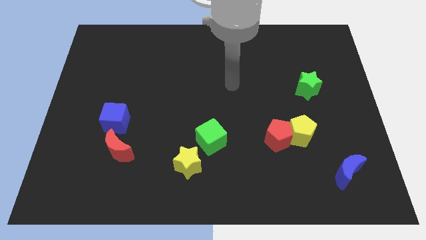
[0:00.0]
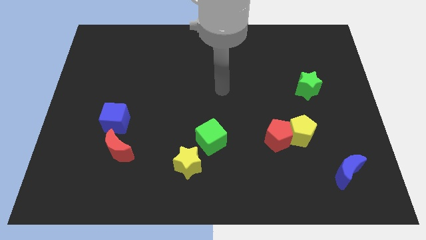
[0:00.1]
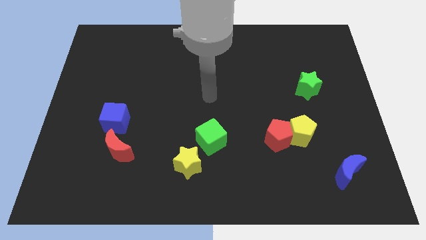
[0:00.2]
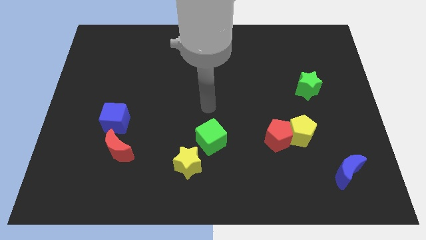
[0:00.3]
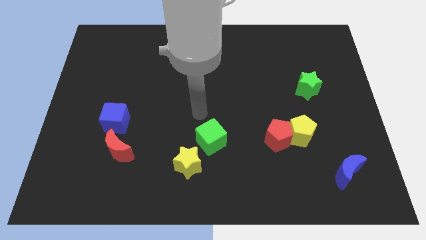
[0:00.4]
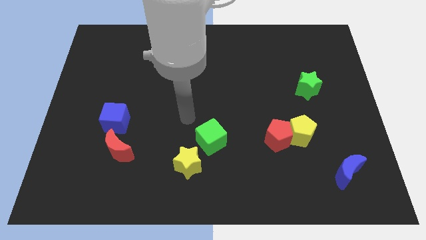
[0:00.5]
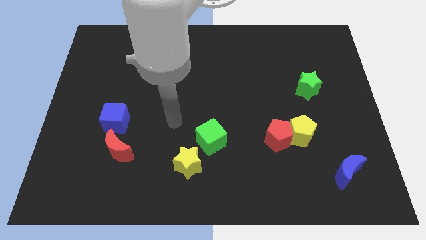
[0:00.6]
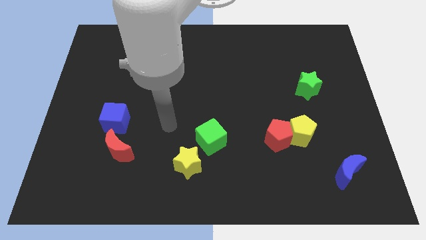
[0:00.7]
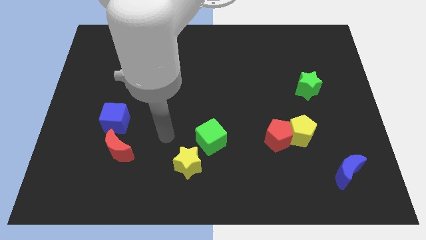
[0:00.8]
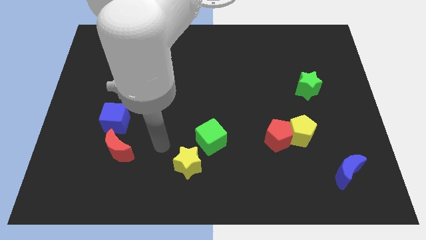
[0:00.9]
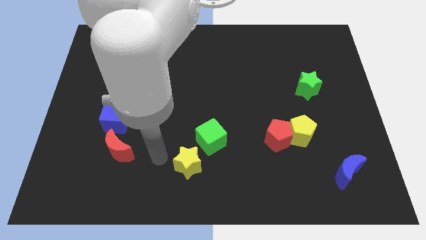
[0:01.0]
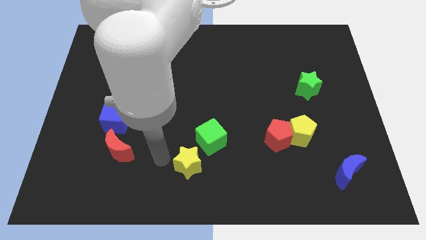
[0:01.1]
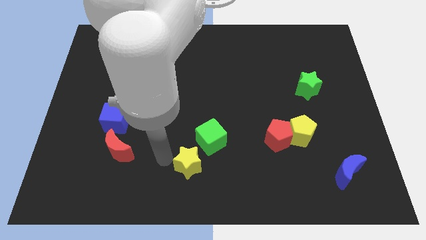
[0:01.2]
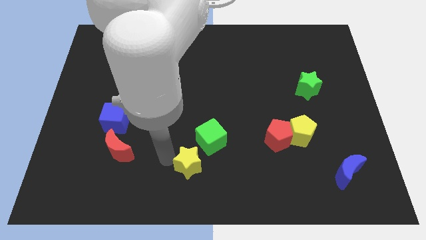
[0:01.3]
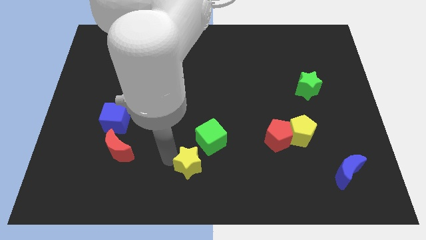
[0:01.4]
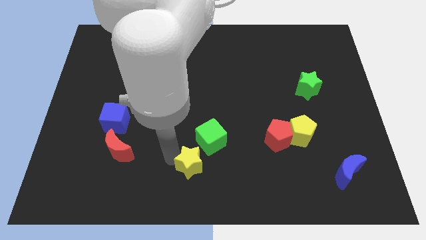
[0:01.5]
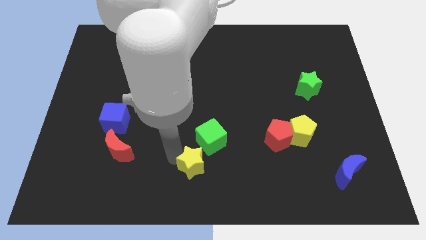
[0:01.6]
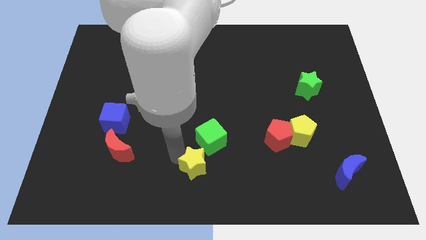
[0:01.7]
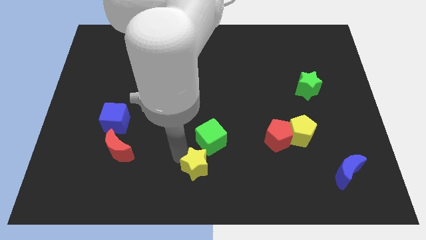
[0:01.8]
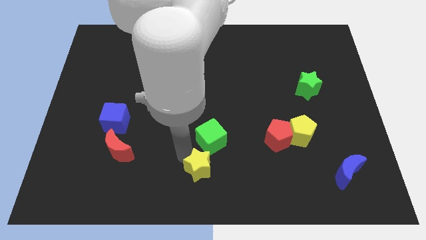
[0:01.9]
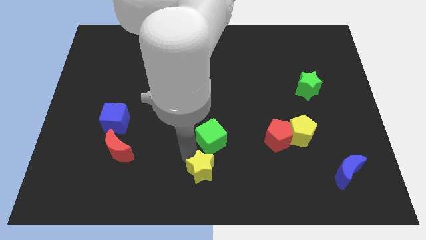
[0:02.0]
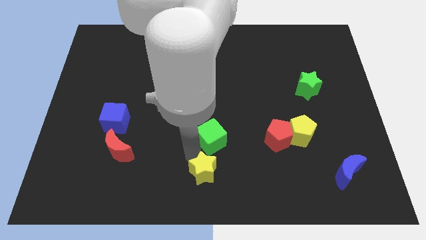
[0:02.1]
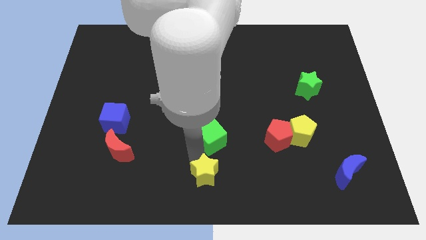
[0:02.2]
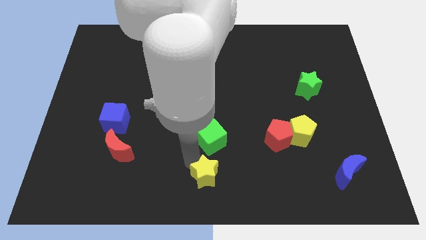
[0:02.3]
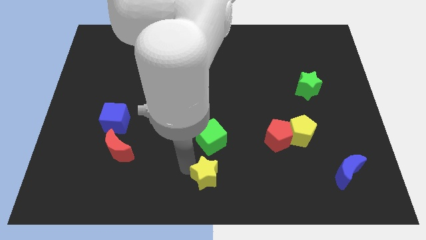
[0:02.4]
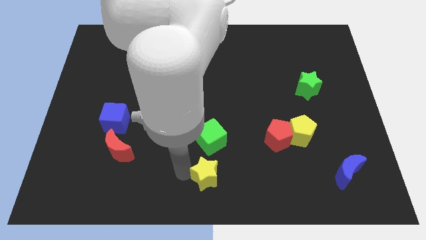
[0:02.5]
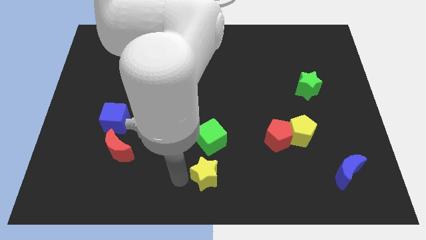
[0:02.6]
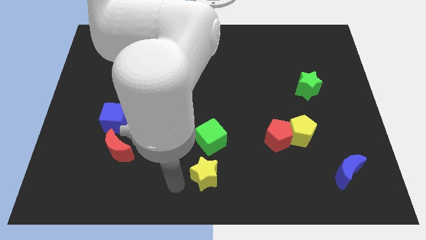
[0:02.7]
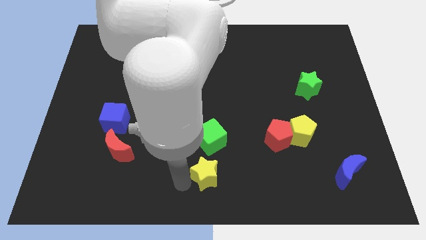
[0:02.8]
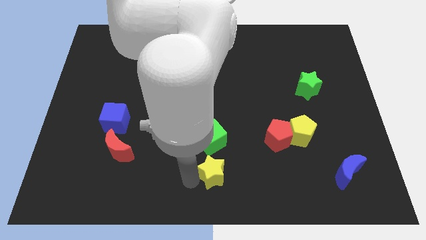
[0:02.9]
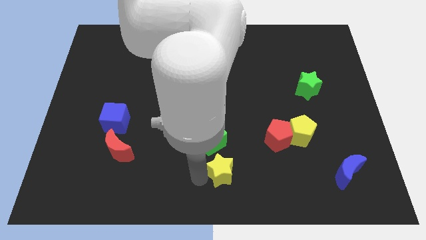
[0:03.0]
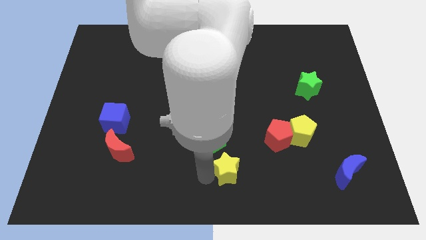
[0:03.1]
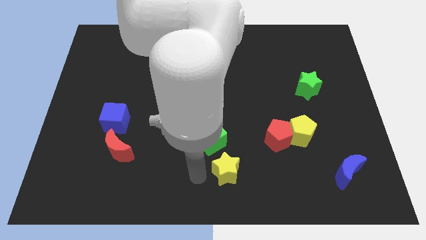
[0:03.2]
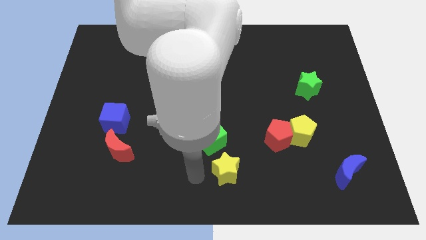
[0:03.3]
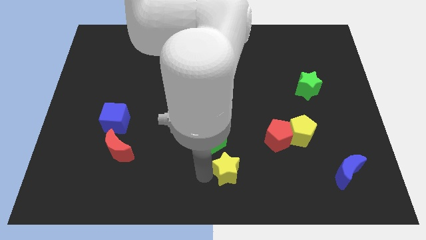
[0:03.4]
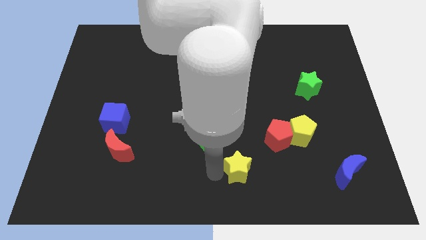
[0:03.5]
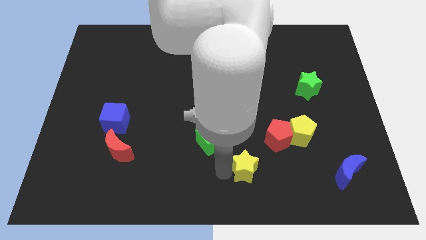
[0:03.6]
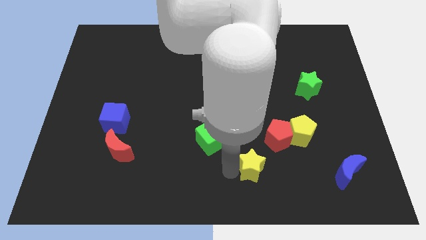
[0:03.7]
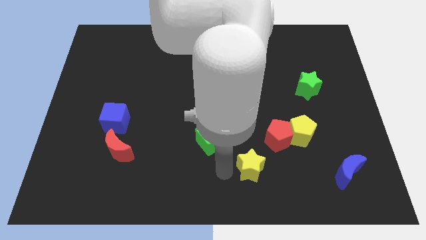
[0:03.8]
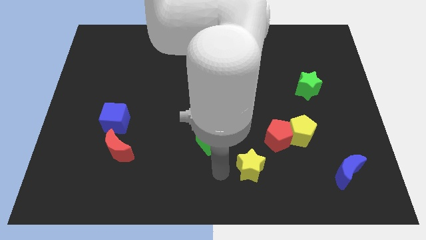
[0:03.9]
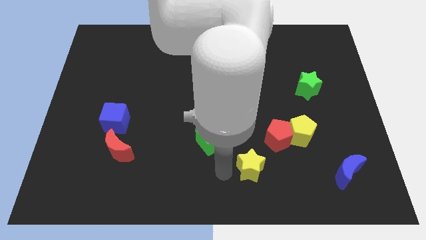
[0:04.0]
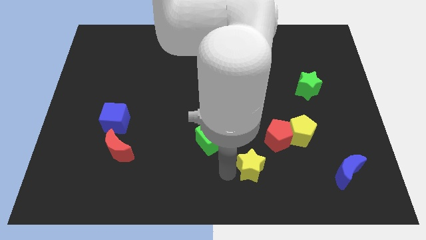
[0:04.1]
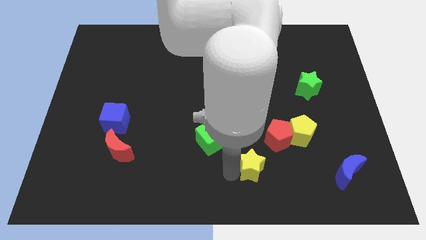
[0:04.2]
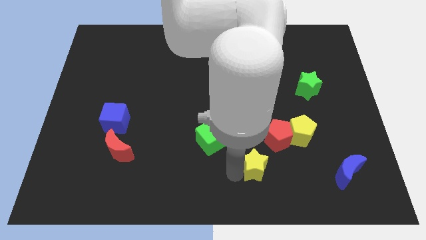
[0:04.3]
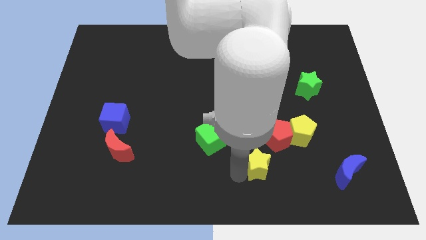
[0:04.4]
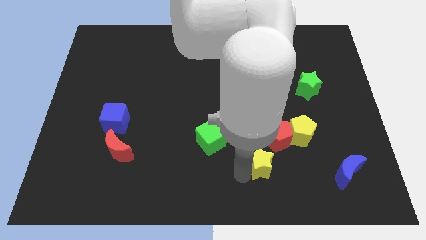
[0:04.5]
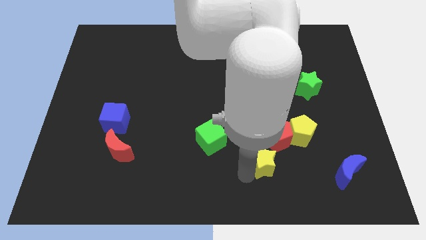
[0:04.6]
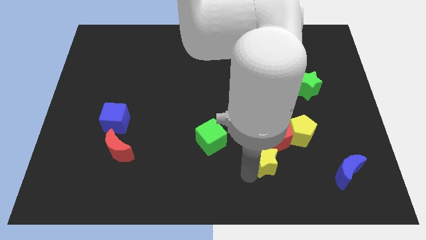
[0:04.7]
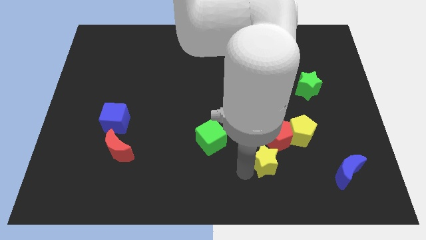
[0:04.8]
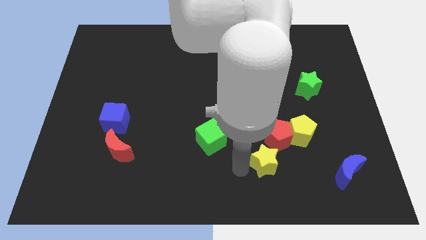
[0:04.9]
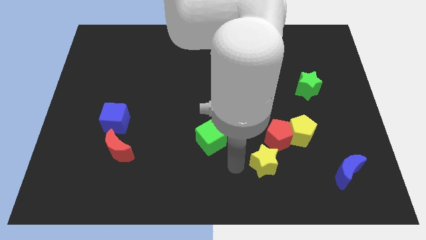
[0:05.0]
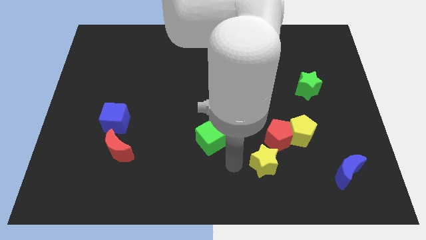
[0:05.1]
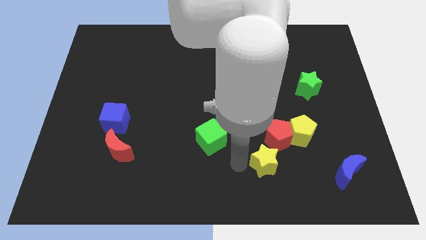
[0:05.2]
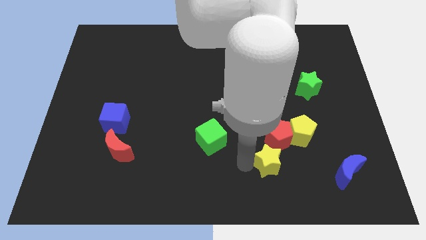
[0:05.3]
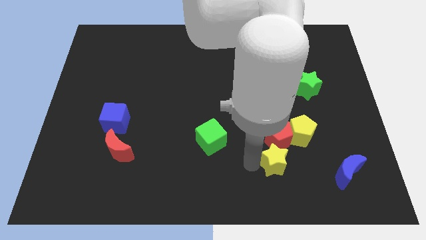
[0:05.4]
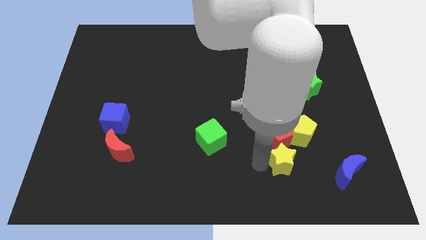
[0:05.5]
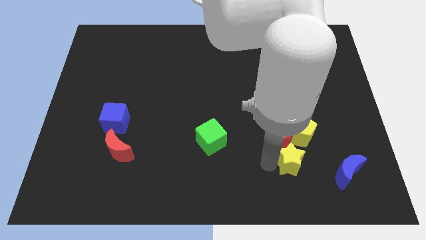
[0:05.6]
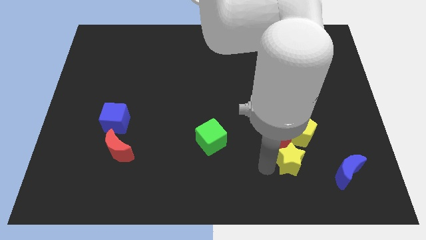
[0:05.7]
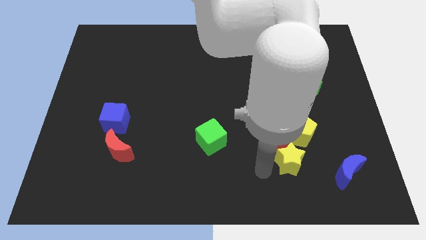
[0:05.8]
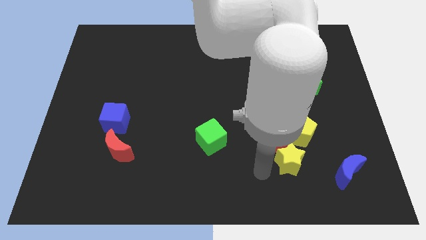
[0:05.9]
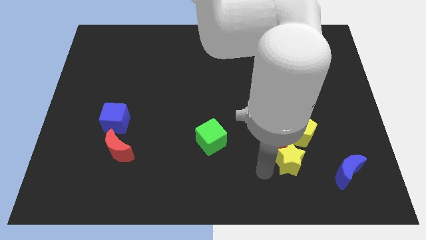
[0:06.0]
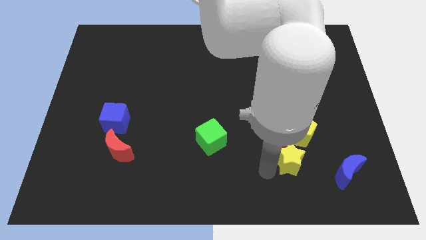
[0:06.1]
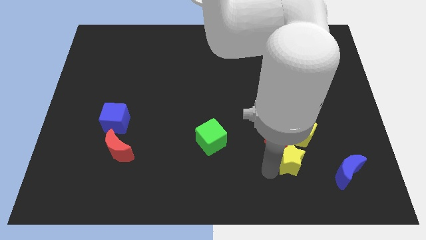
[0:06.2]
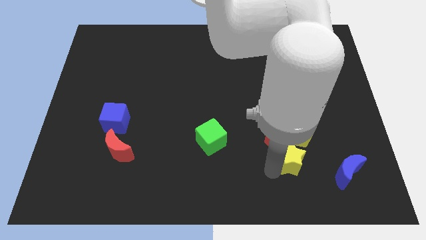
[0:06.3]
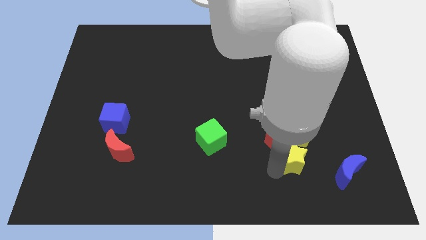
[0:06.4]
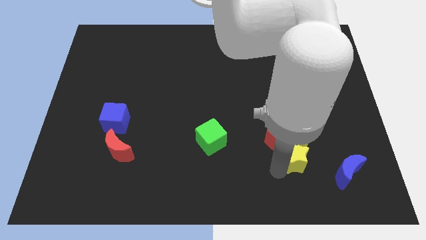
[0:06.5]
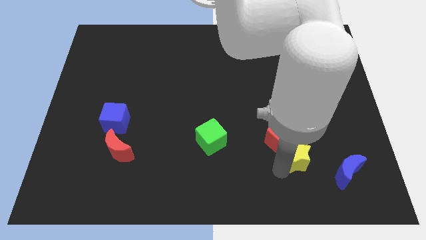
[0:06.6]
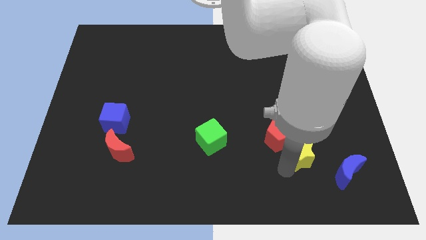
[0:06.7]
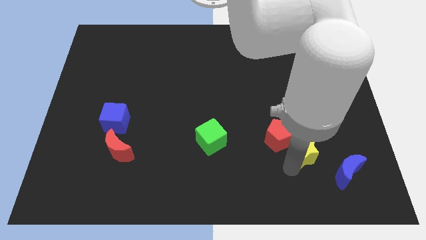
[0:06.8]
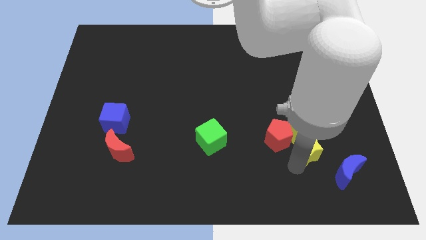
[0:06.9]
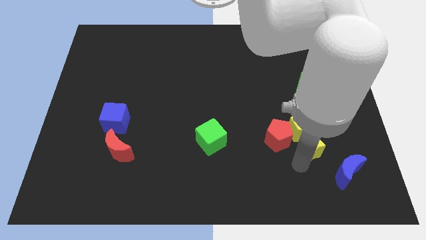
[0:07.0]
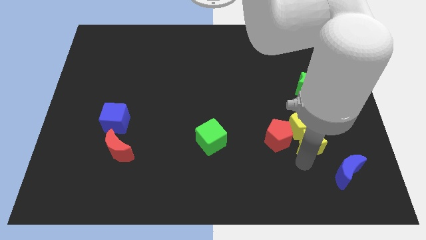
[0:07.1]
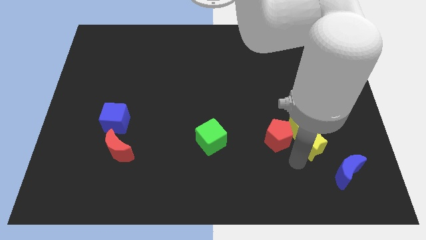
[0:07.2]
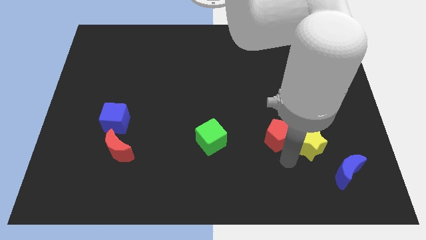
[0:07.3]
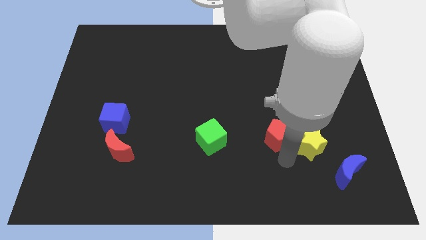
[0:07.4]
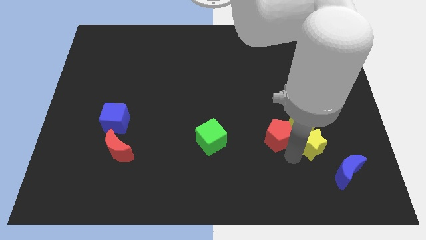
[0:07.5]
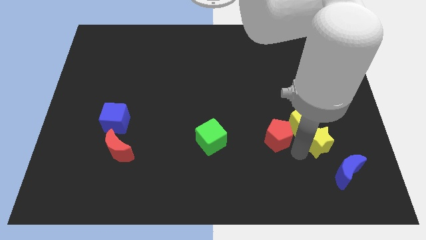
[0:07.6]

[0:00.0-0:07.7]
push the yellow star to the top side of the blue moon
